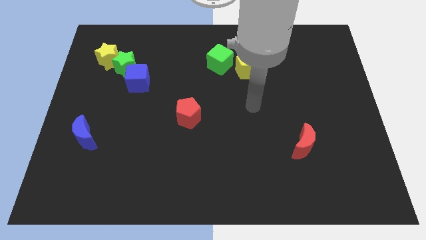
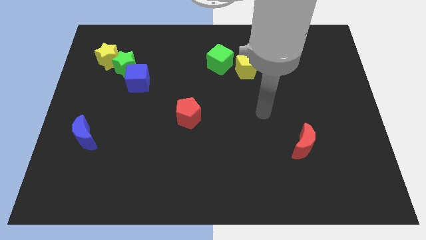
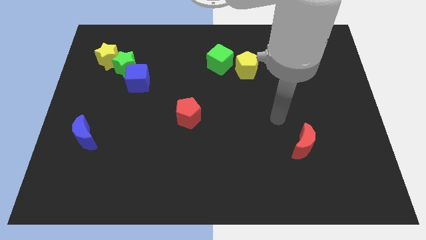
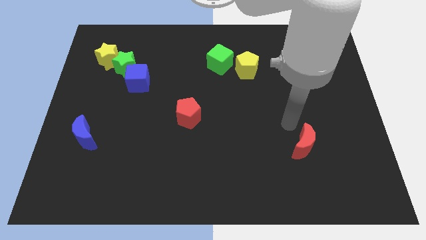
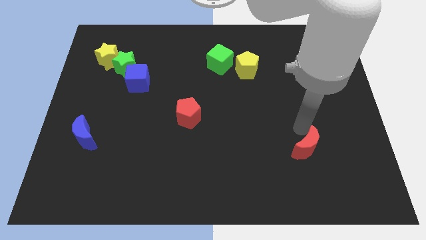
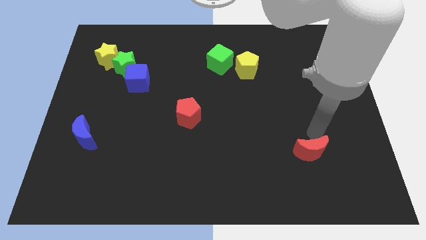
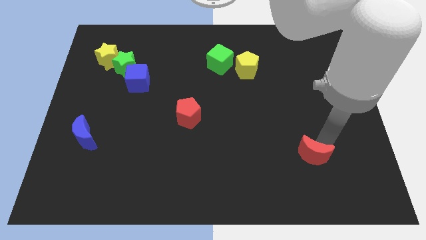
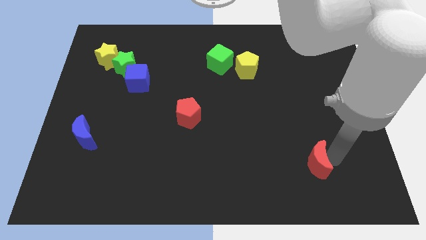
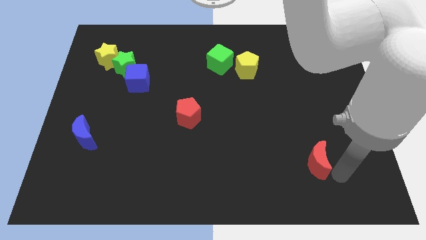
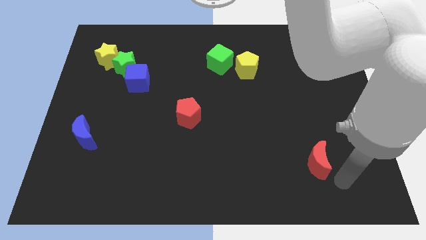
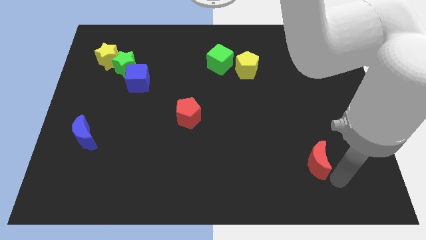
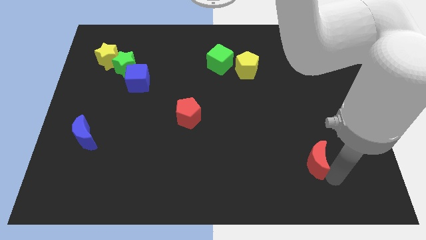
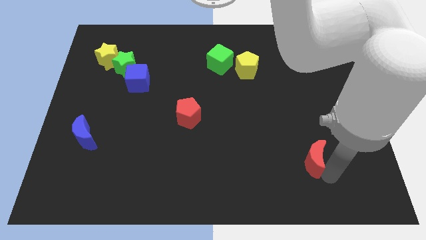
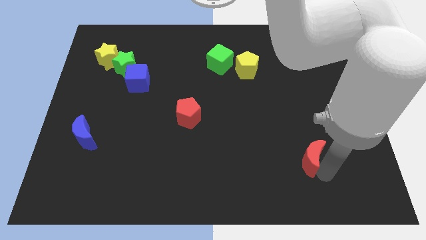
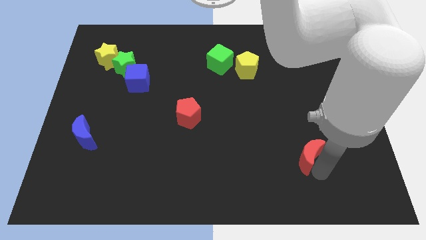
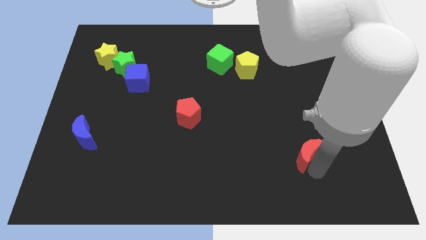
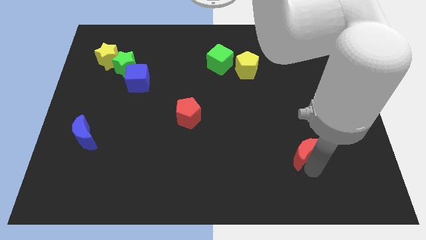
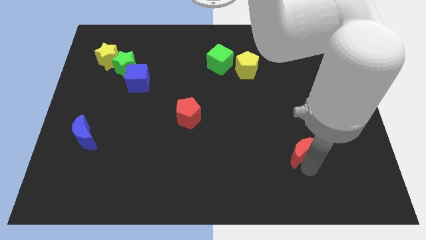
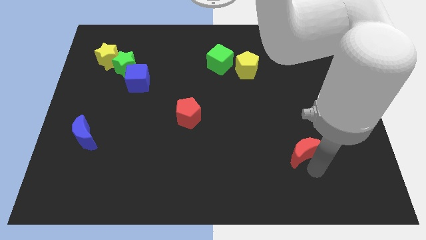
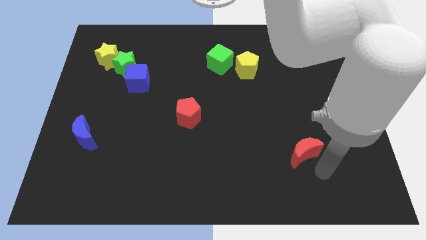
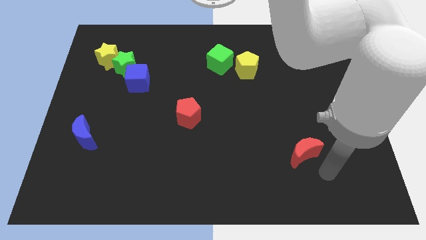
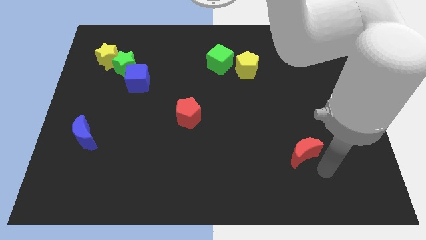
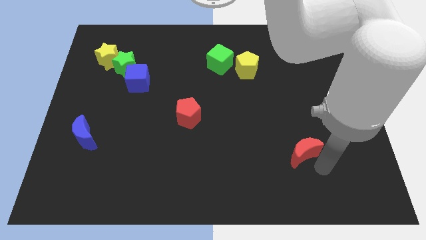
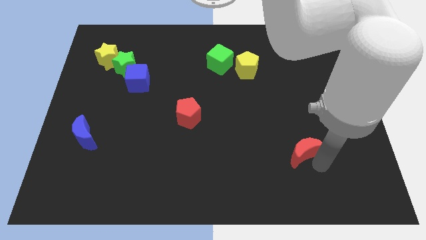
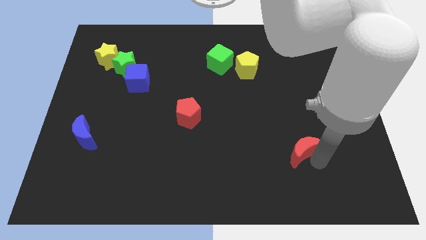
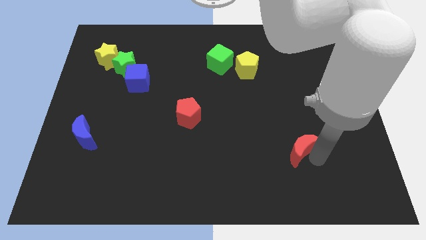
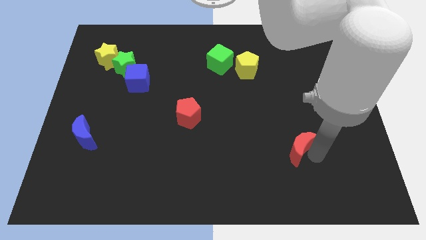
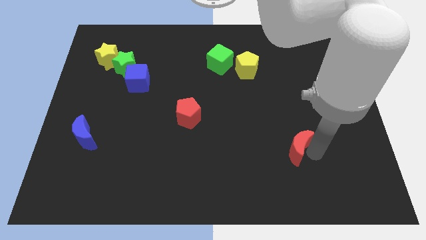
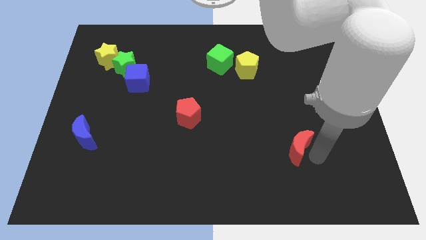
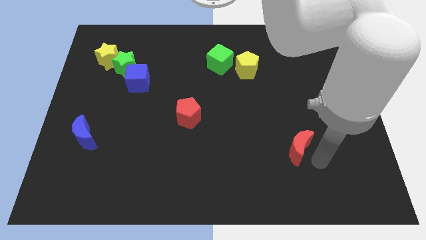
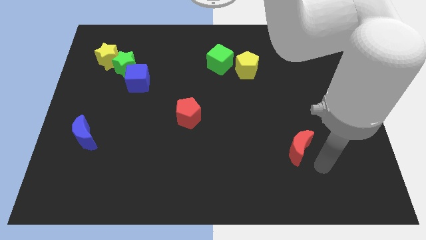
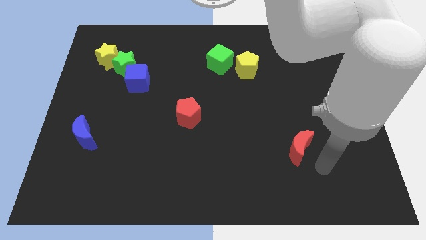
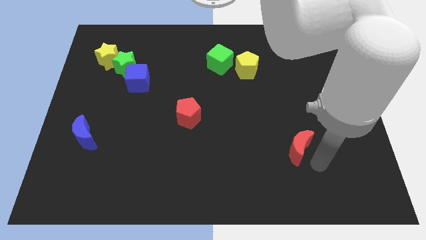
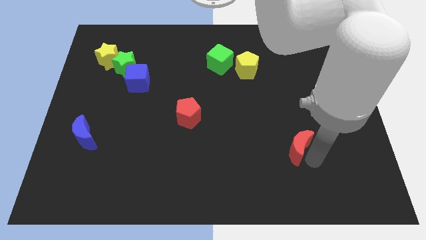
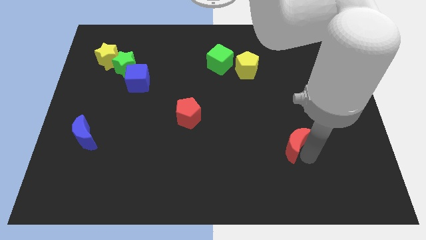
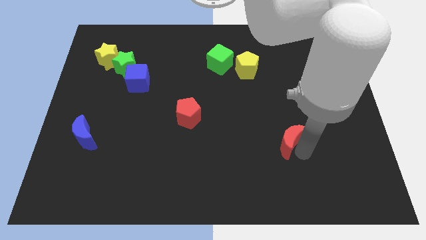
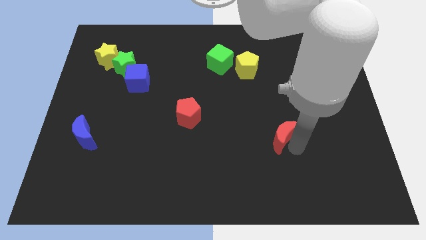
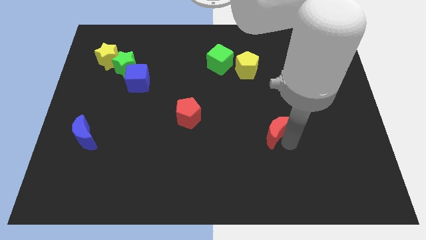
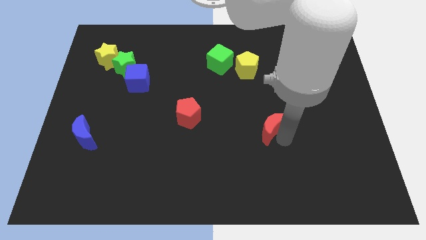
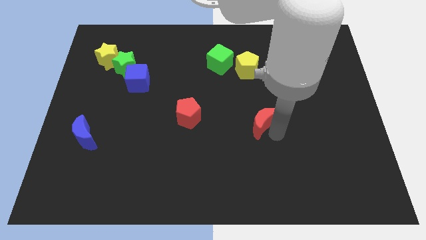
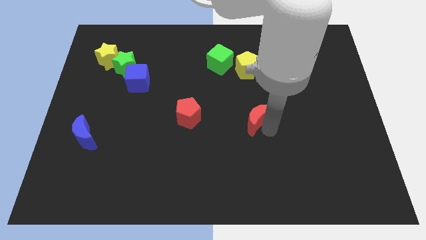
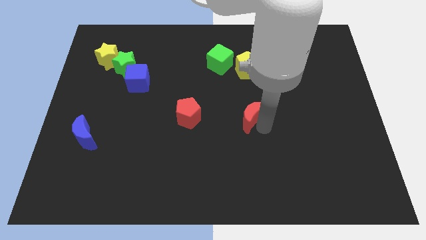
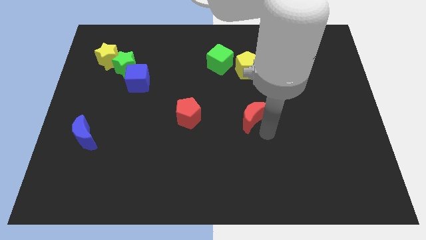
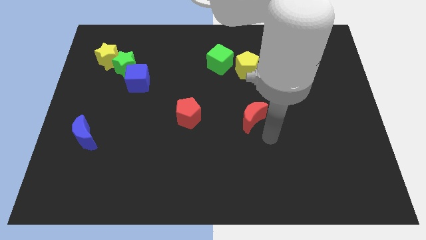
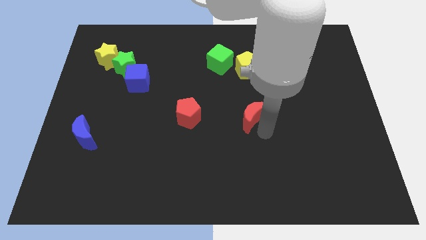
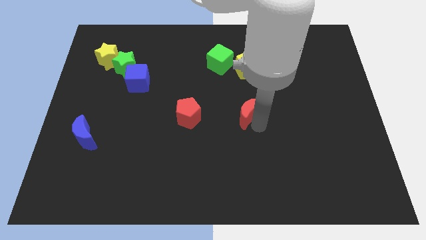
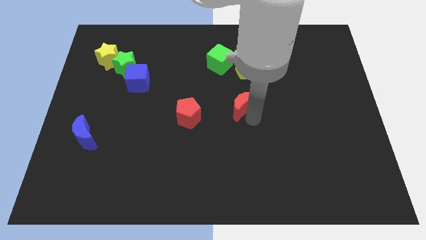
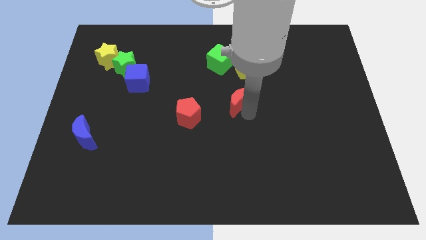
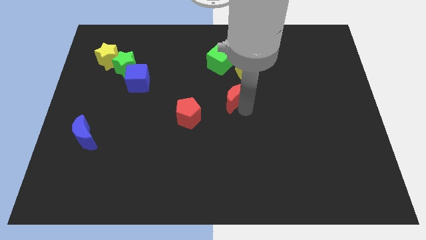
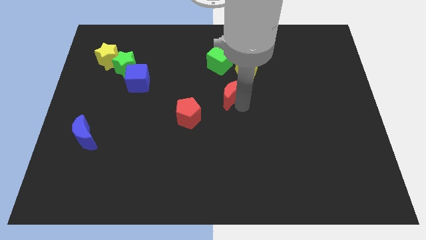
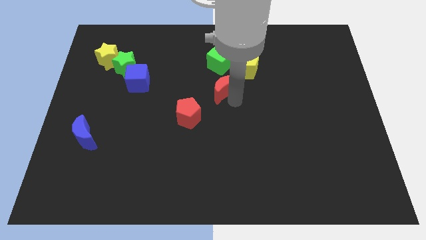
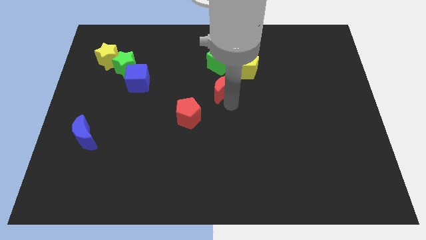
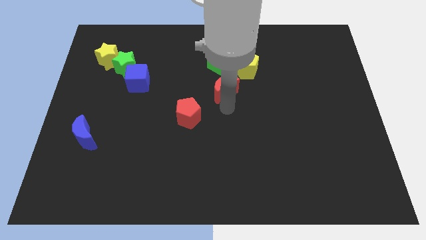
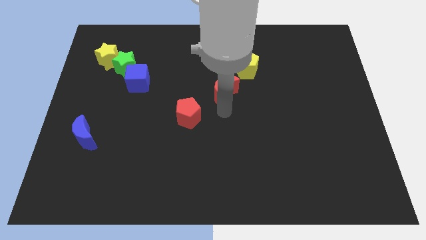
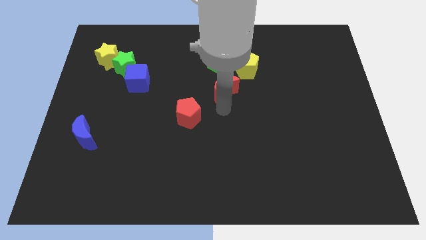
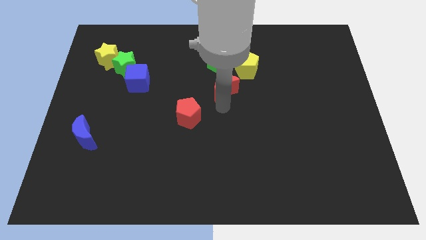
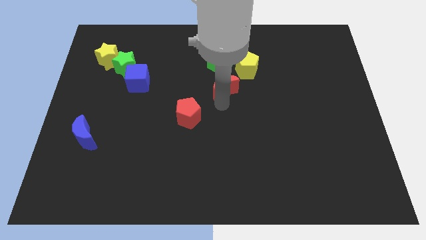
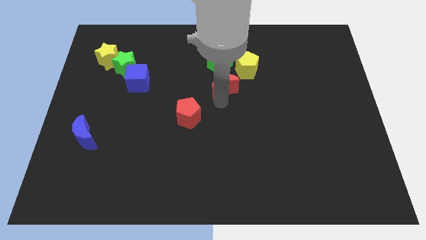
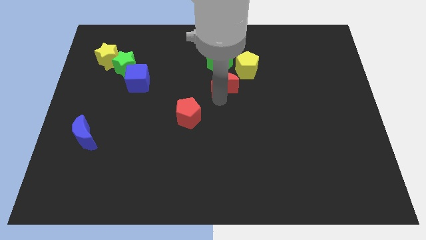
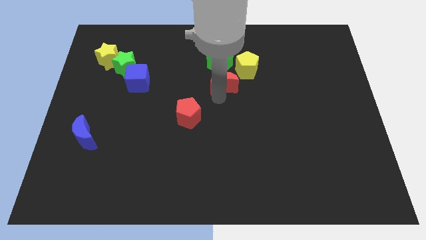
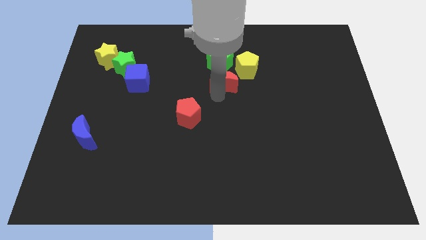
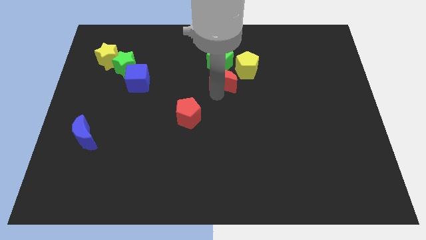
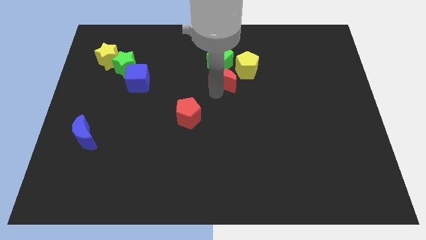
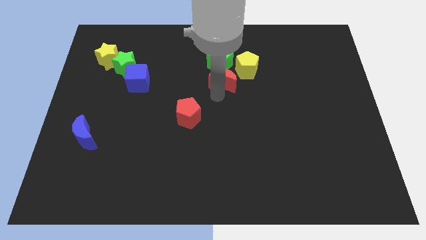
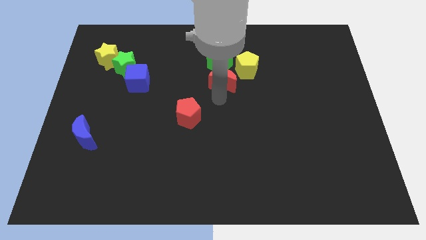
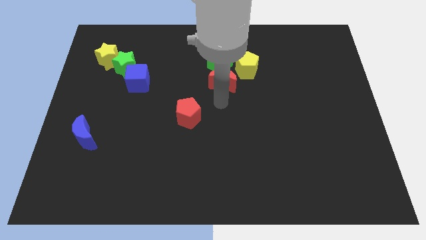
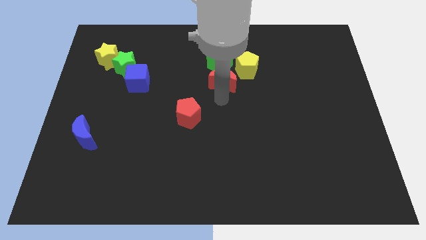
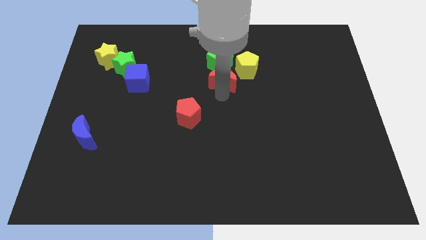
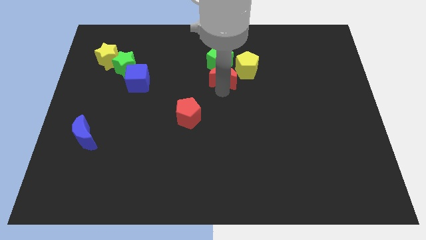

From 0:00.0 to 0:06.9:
push the red moon to the green cube
